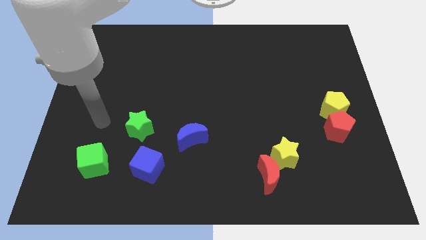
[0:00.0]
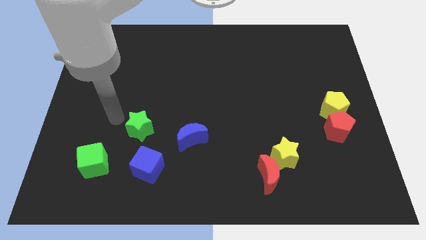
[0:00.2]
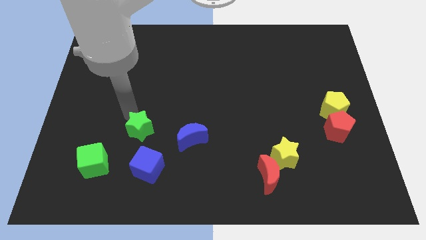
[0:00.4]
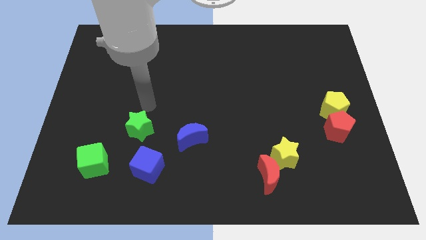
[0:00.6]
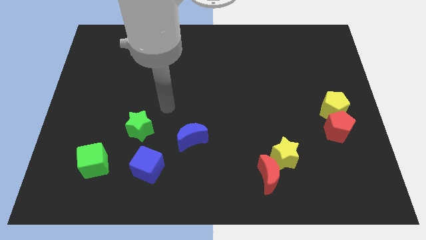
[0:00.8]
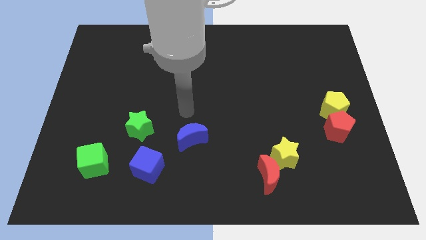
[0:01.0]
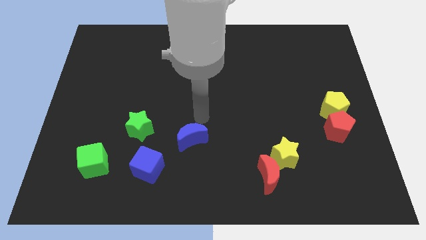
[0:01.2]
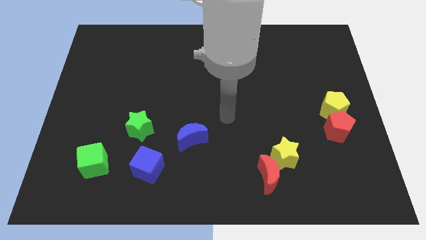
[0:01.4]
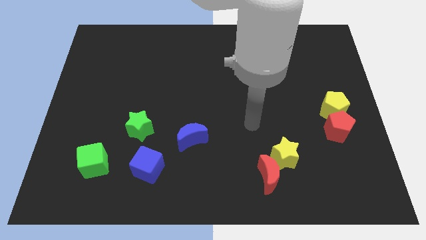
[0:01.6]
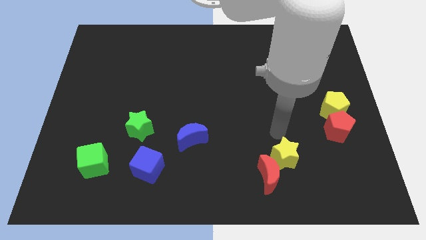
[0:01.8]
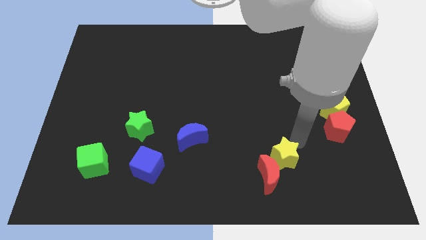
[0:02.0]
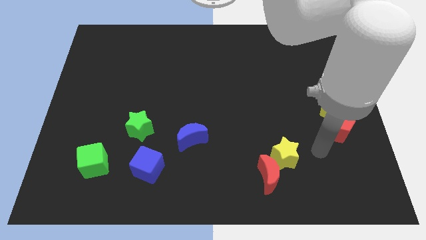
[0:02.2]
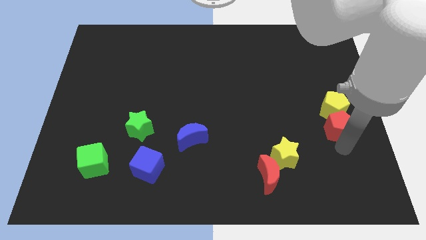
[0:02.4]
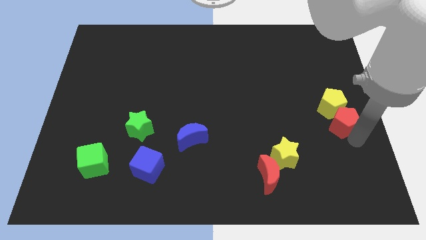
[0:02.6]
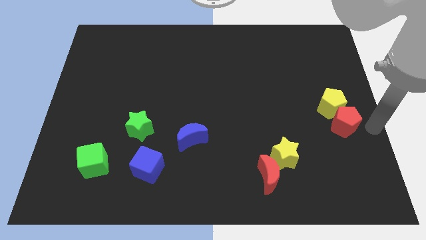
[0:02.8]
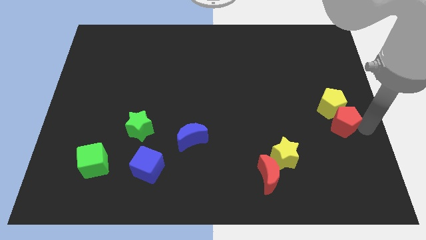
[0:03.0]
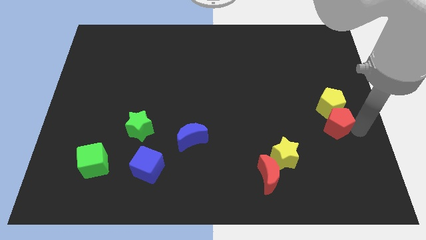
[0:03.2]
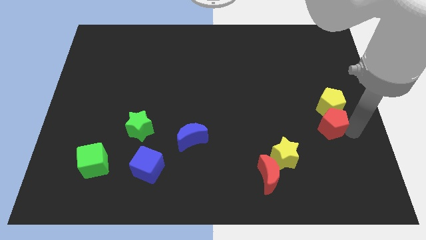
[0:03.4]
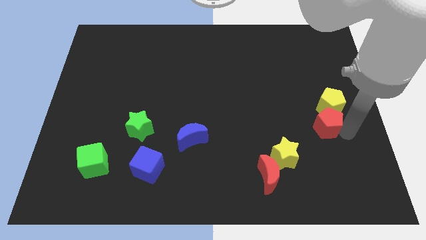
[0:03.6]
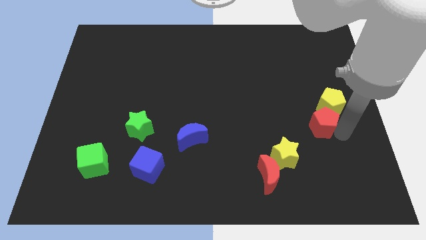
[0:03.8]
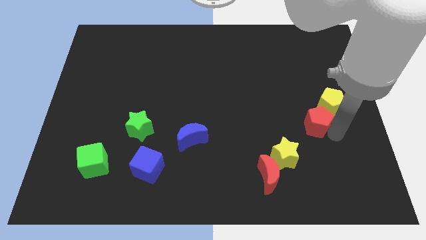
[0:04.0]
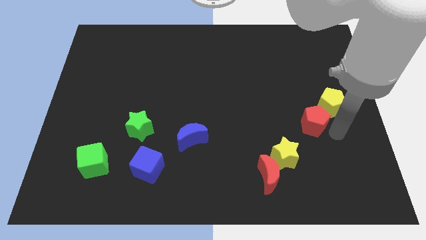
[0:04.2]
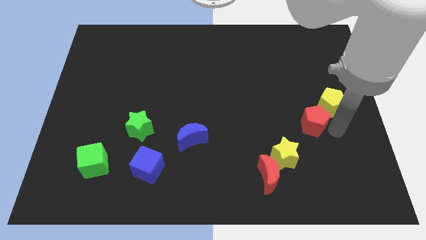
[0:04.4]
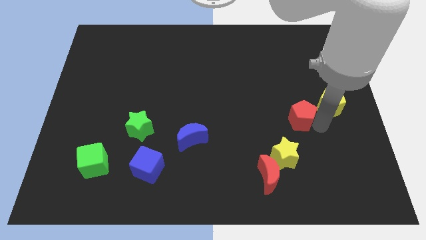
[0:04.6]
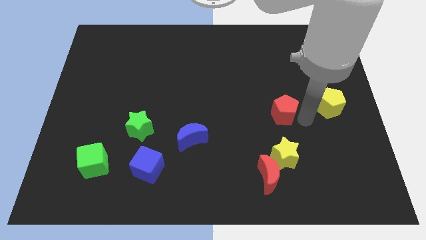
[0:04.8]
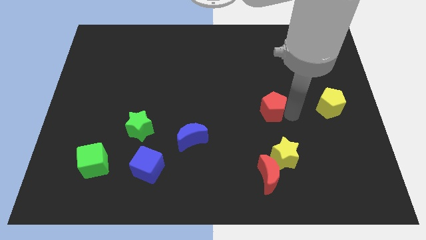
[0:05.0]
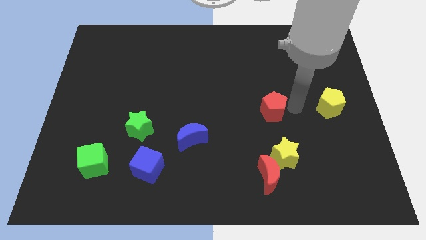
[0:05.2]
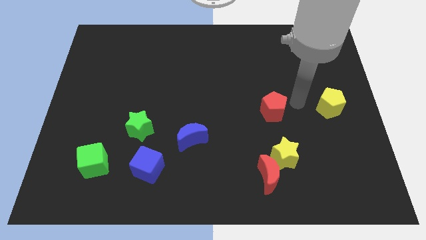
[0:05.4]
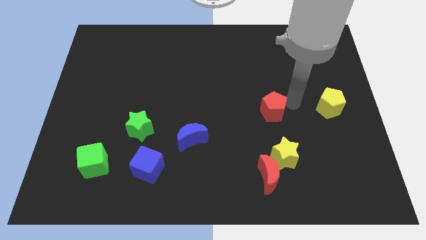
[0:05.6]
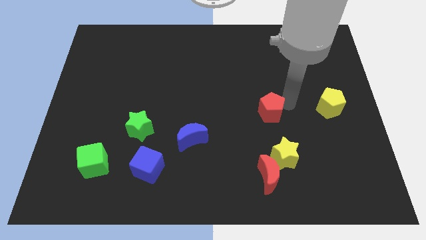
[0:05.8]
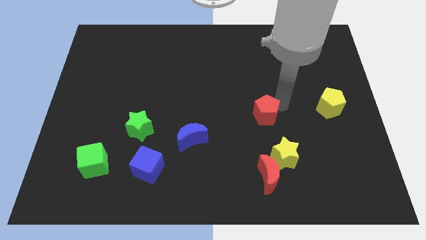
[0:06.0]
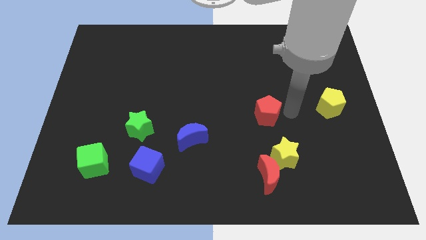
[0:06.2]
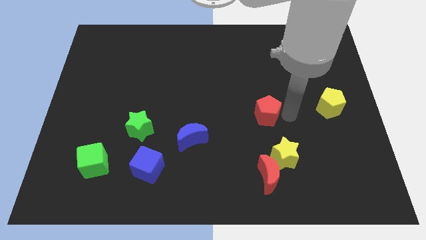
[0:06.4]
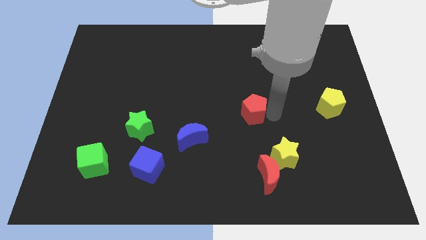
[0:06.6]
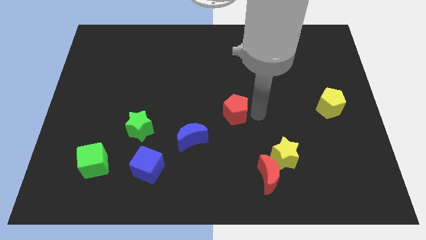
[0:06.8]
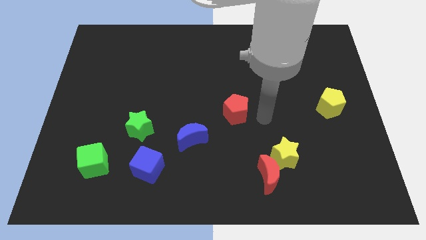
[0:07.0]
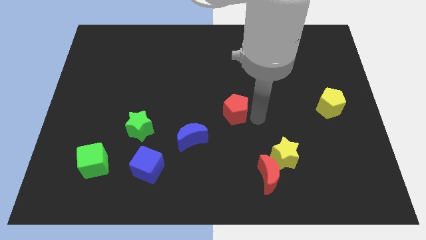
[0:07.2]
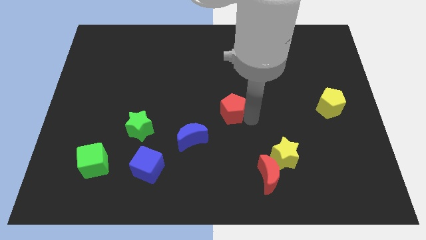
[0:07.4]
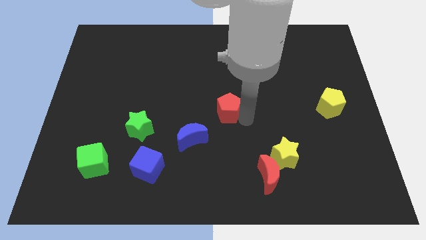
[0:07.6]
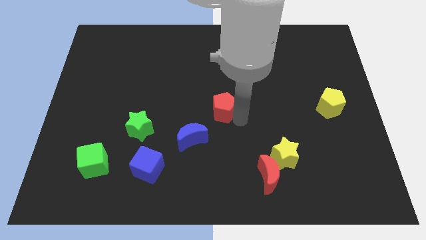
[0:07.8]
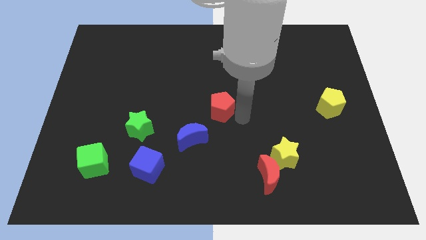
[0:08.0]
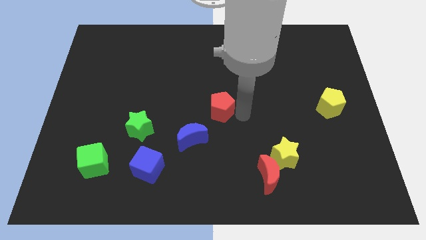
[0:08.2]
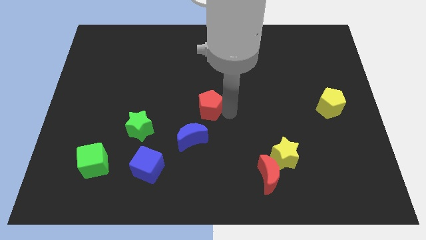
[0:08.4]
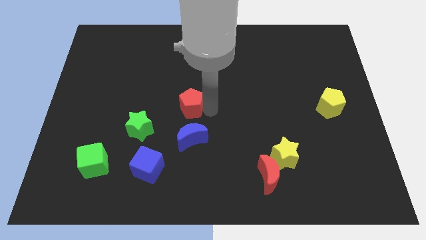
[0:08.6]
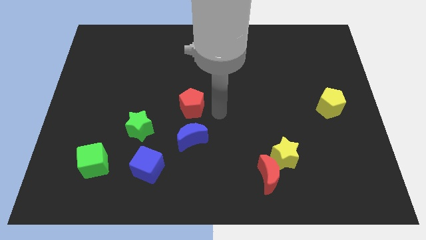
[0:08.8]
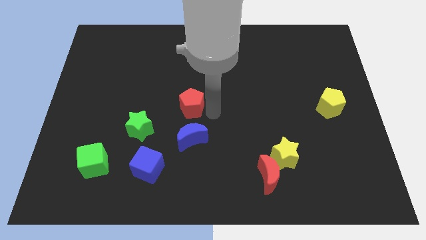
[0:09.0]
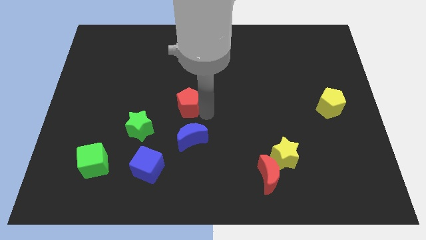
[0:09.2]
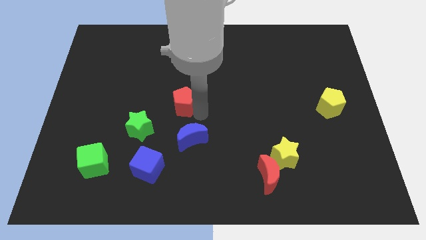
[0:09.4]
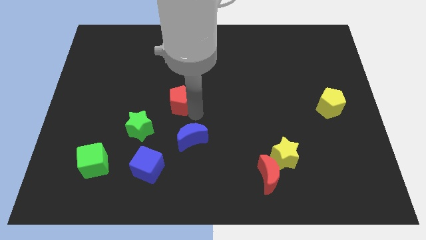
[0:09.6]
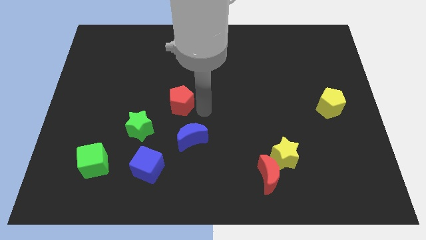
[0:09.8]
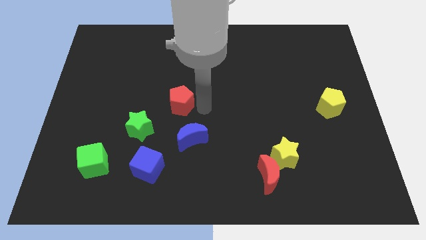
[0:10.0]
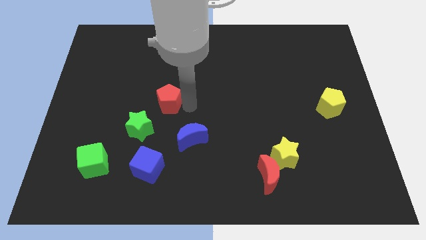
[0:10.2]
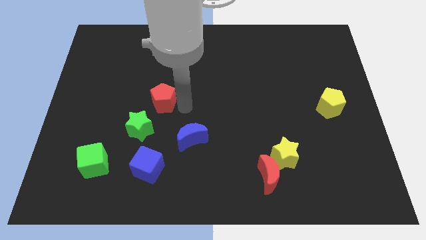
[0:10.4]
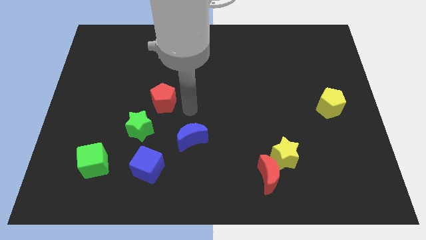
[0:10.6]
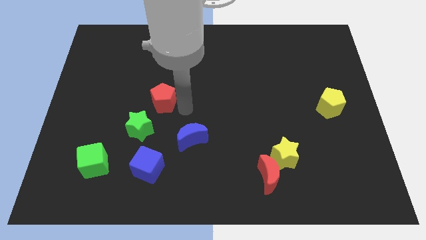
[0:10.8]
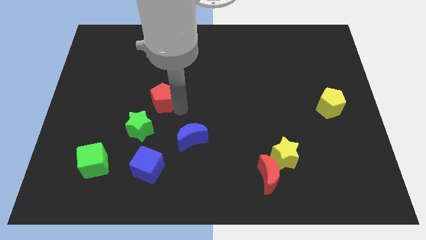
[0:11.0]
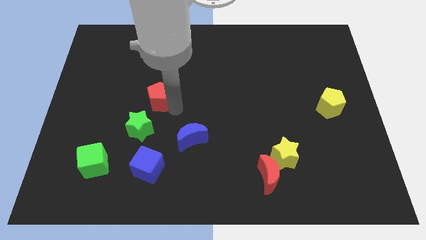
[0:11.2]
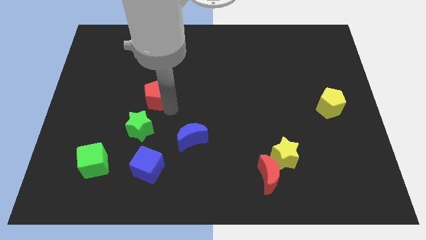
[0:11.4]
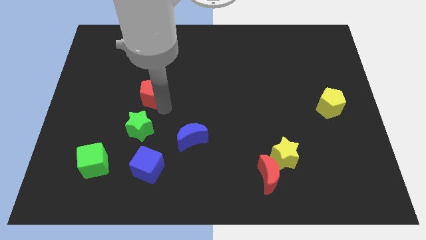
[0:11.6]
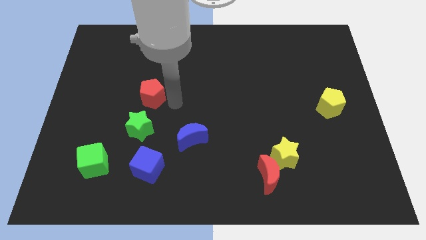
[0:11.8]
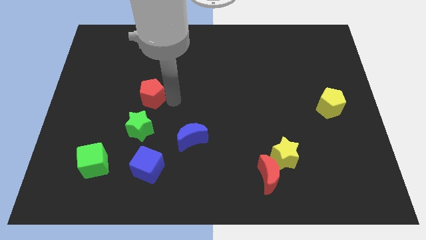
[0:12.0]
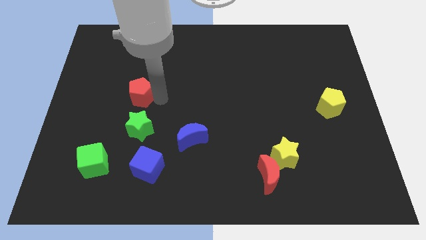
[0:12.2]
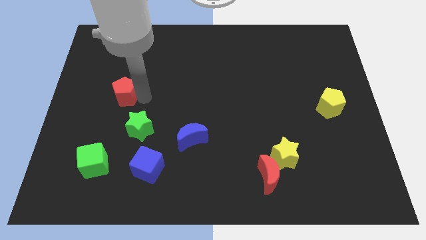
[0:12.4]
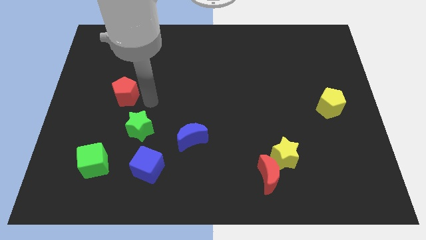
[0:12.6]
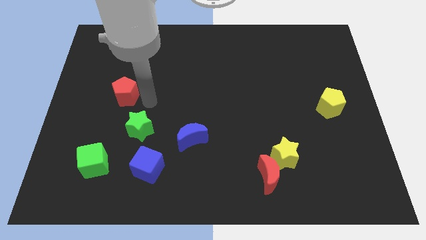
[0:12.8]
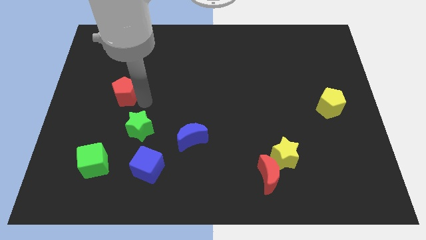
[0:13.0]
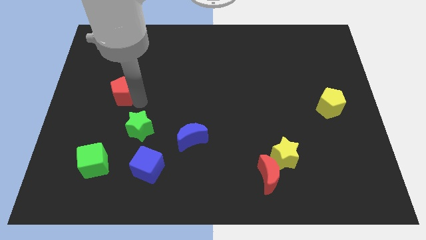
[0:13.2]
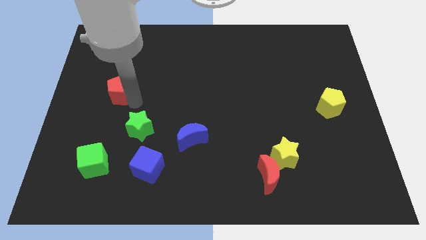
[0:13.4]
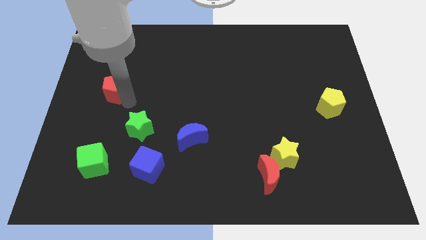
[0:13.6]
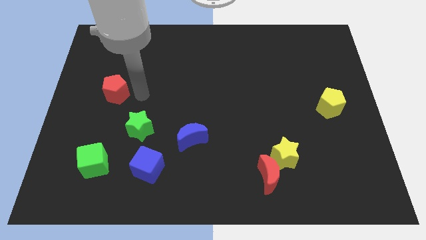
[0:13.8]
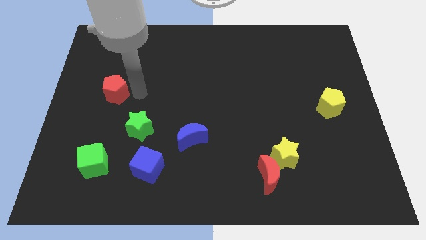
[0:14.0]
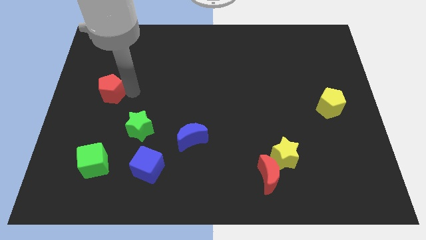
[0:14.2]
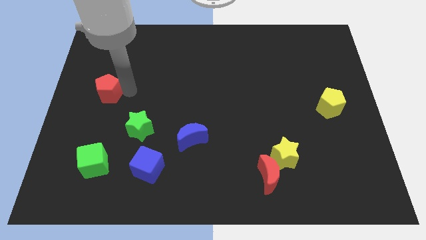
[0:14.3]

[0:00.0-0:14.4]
push the red pentagon to the center left
